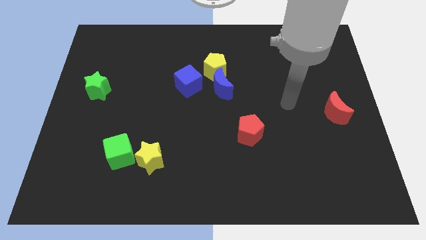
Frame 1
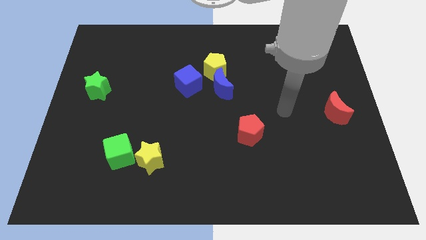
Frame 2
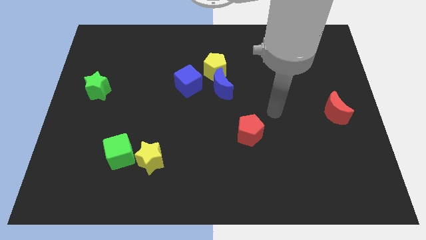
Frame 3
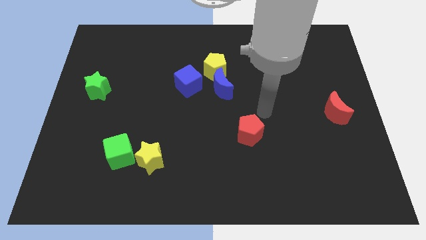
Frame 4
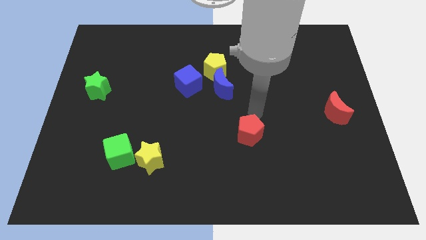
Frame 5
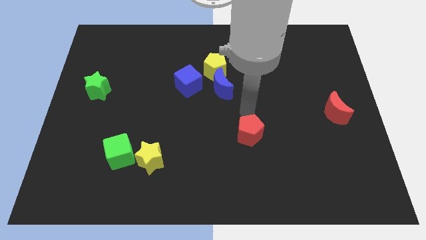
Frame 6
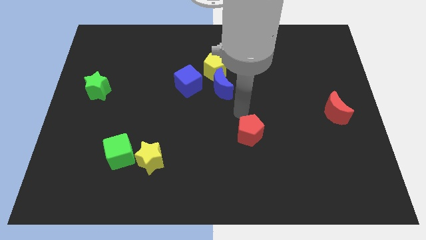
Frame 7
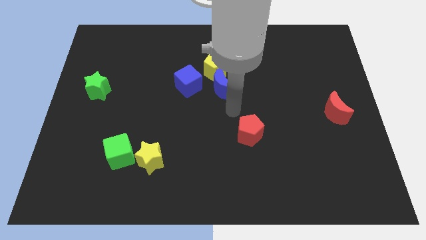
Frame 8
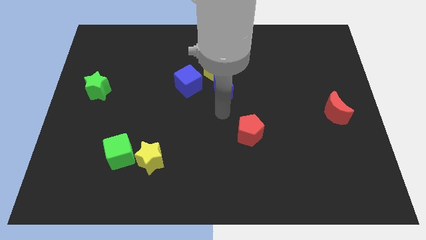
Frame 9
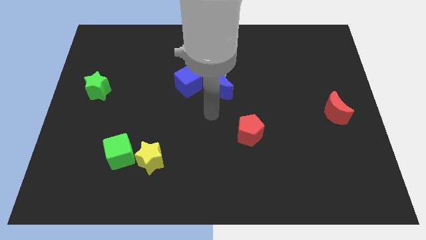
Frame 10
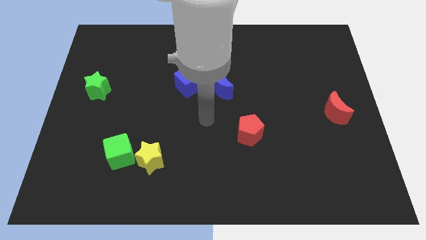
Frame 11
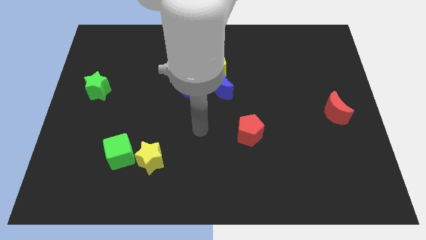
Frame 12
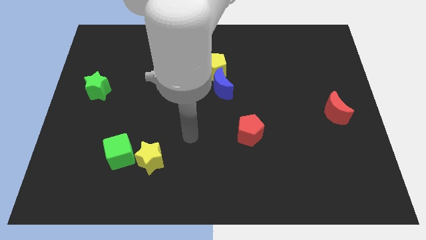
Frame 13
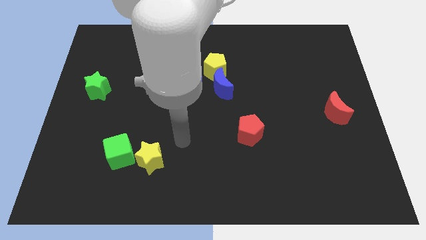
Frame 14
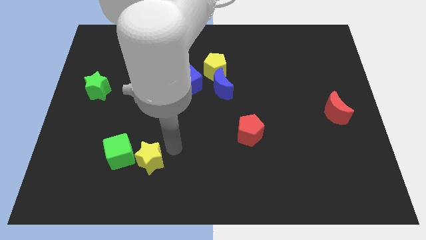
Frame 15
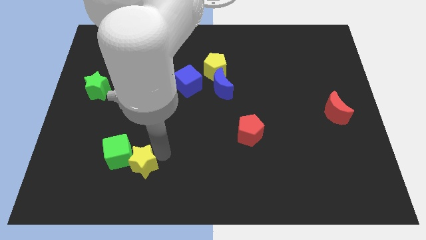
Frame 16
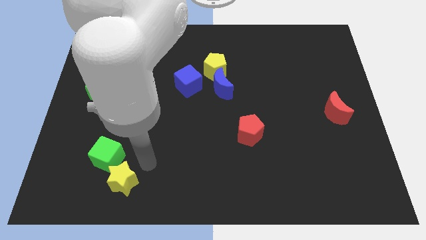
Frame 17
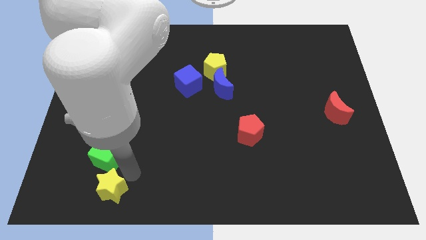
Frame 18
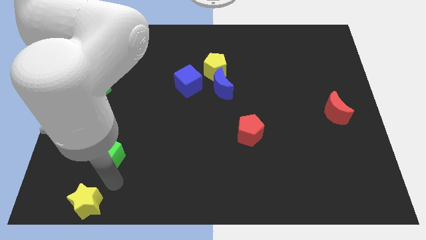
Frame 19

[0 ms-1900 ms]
move the green cube away from the yellow star

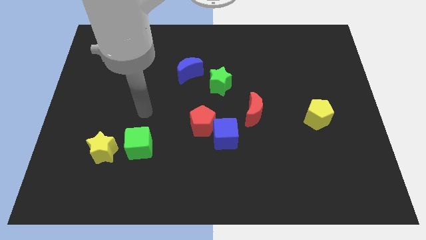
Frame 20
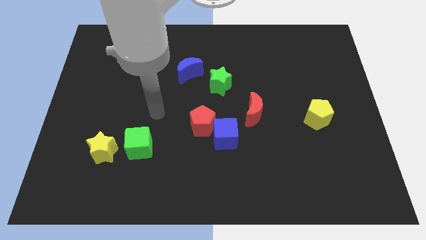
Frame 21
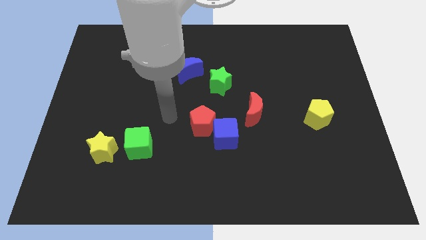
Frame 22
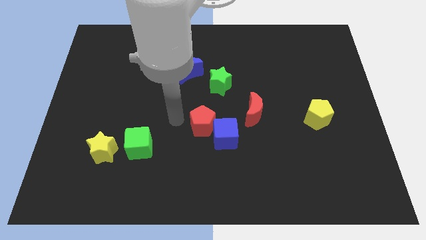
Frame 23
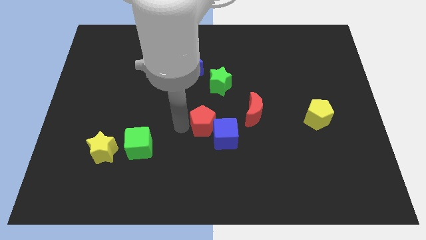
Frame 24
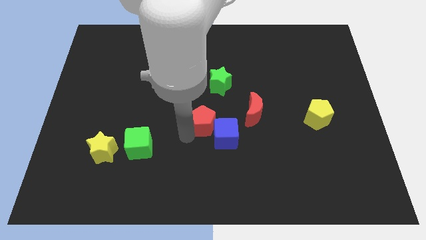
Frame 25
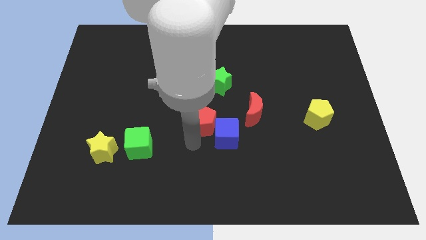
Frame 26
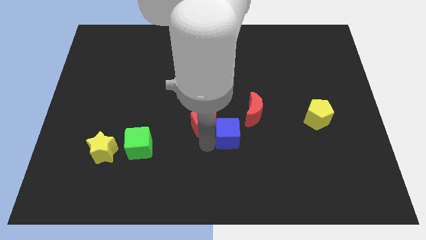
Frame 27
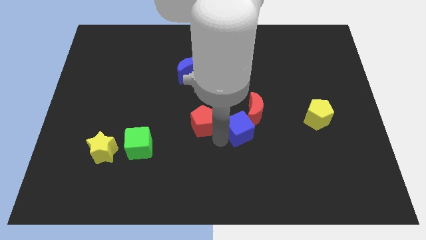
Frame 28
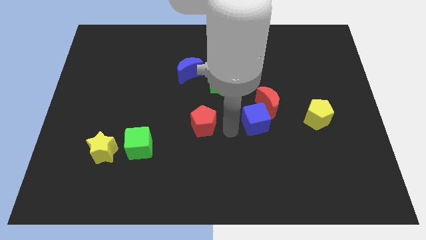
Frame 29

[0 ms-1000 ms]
separate the red pentagon from the blue cube

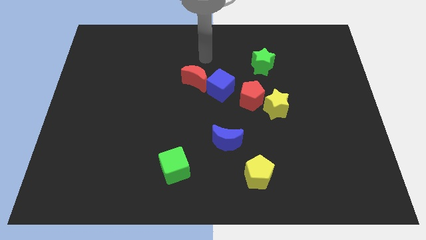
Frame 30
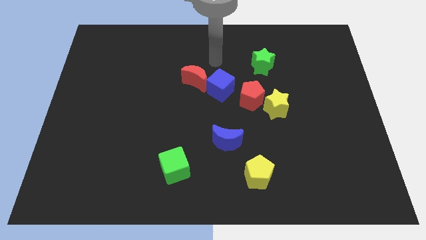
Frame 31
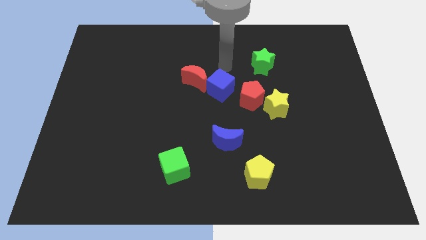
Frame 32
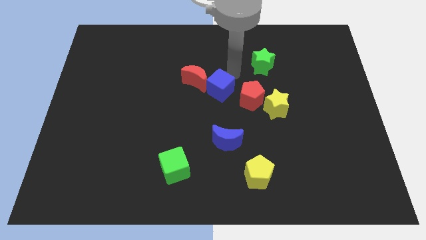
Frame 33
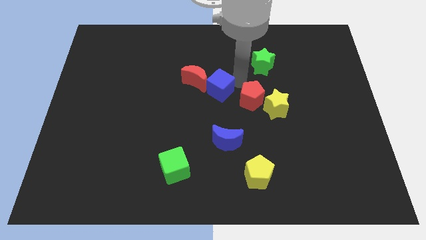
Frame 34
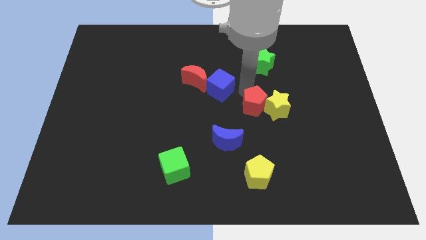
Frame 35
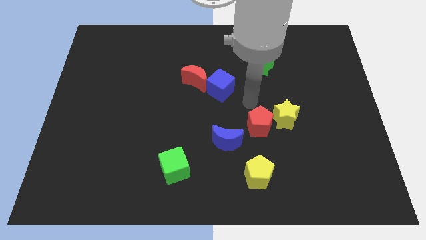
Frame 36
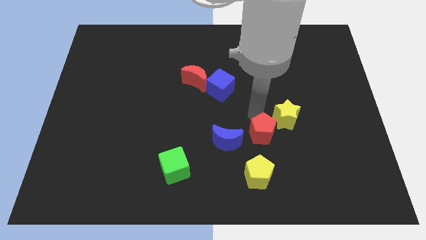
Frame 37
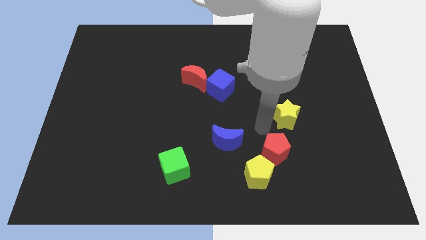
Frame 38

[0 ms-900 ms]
move the yellow star away from the red pentagon

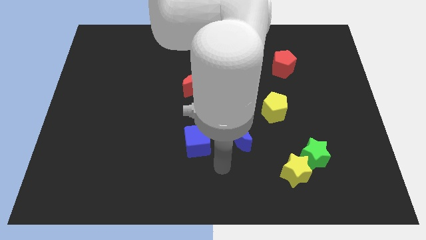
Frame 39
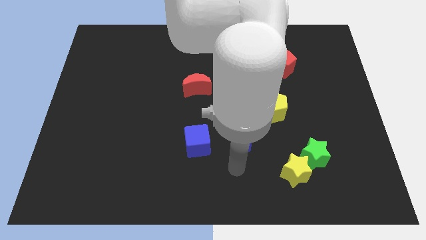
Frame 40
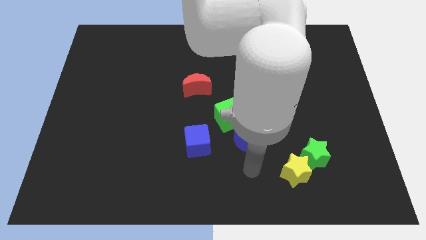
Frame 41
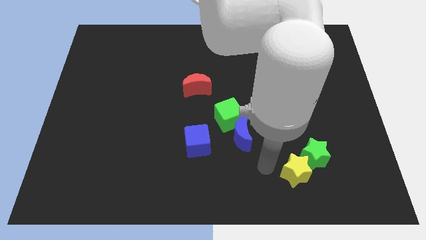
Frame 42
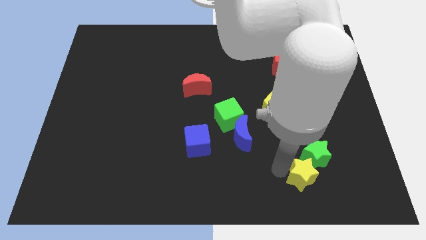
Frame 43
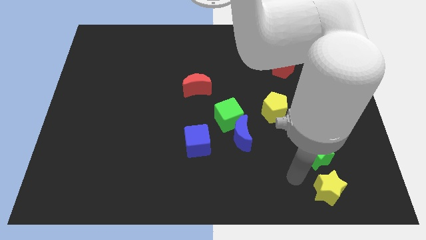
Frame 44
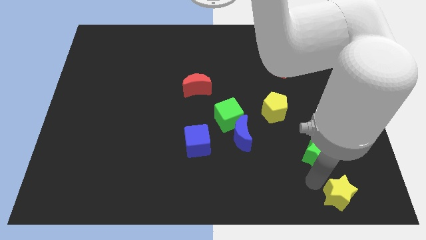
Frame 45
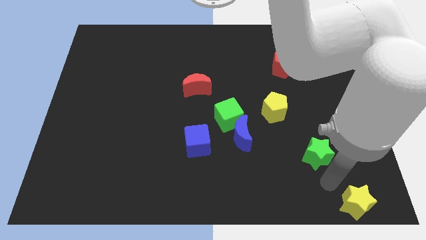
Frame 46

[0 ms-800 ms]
separate the green star from the yellow star

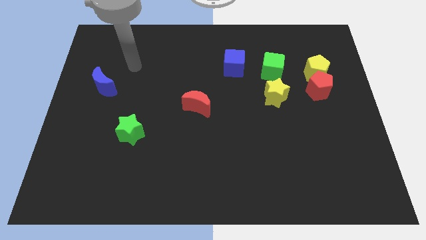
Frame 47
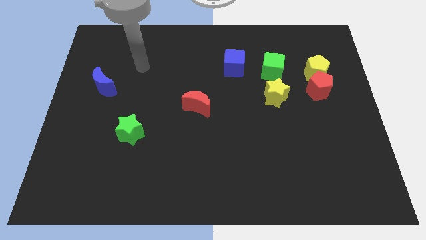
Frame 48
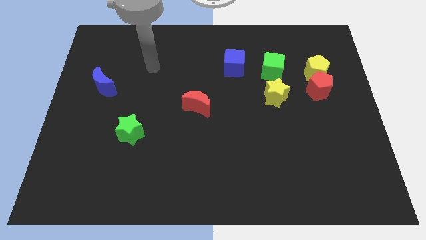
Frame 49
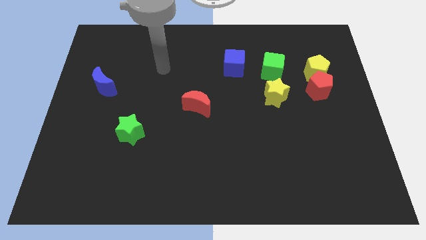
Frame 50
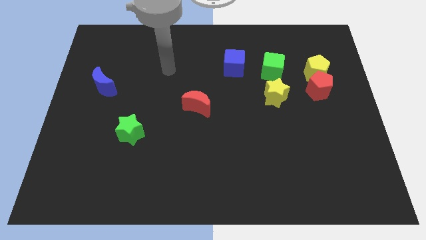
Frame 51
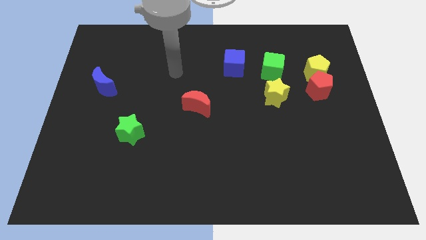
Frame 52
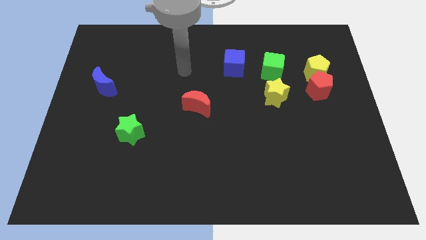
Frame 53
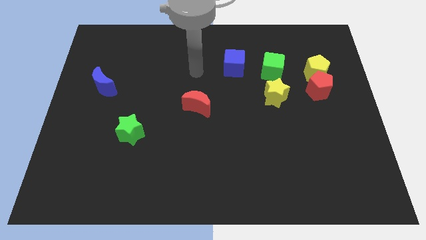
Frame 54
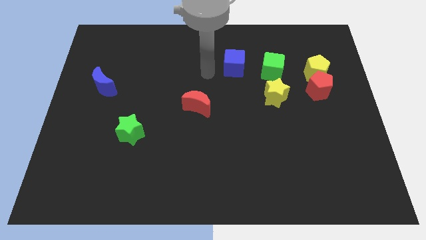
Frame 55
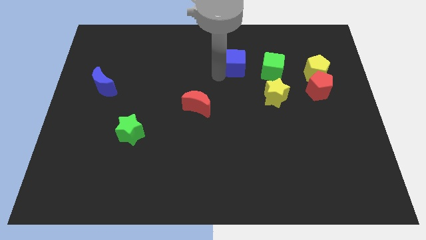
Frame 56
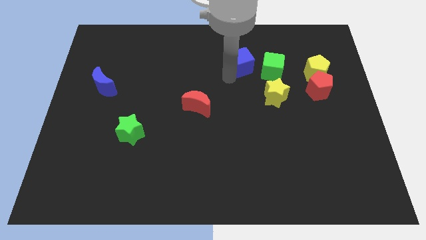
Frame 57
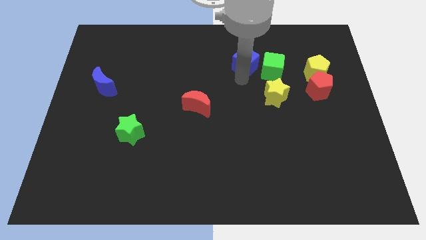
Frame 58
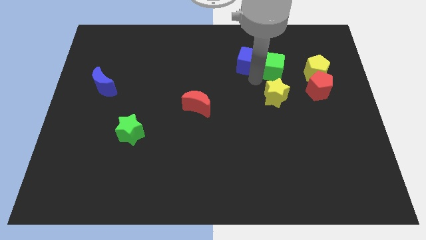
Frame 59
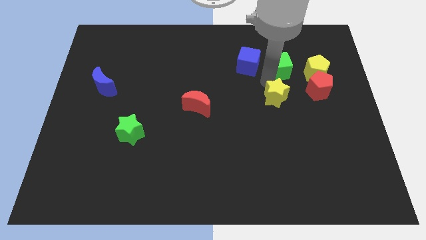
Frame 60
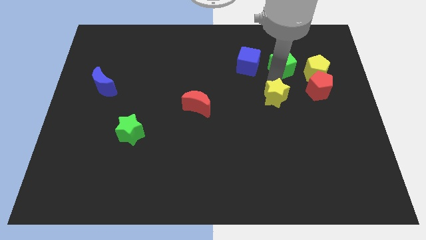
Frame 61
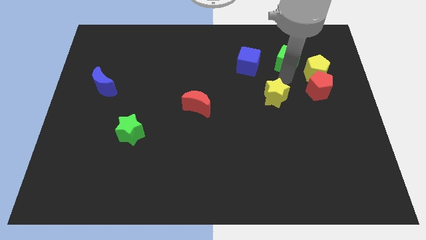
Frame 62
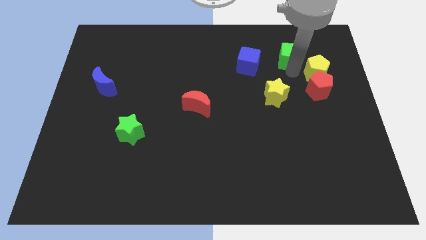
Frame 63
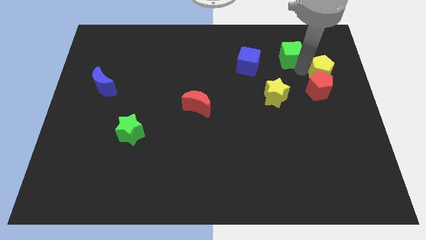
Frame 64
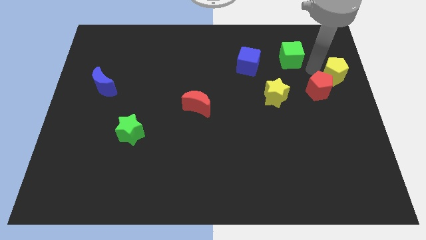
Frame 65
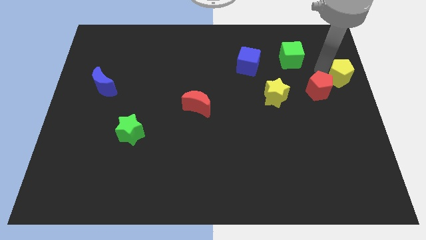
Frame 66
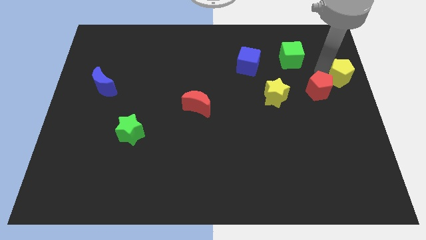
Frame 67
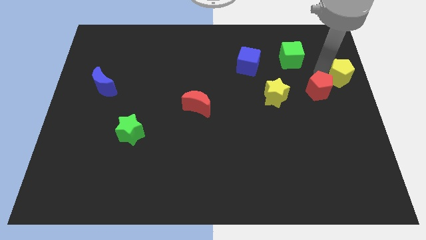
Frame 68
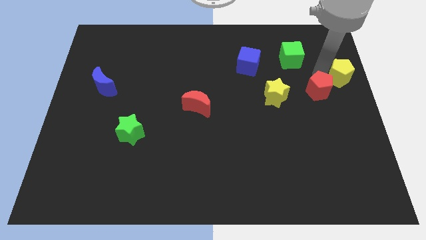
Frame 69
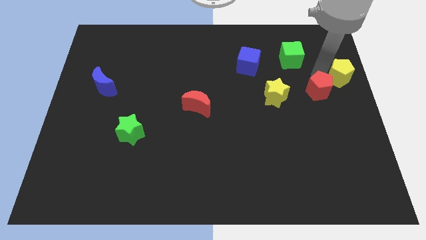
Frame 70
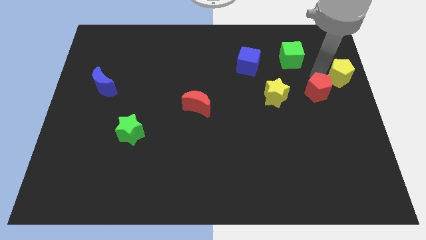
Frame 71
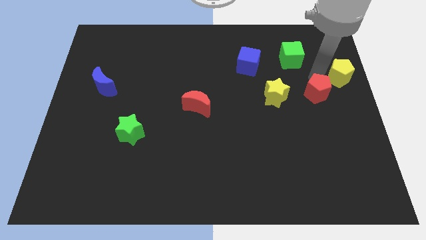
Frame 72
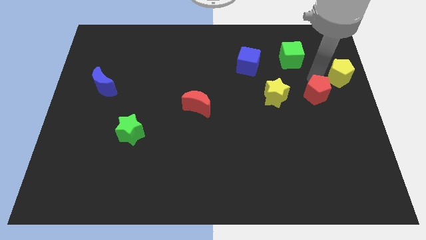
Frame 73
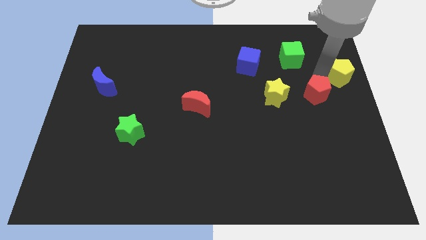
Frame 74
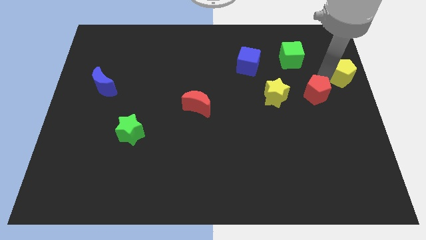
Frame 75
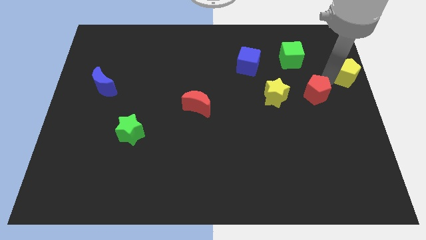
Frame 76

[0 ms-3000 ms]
move the red pentagon away from the yellow pentagon

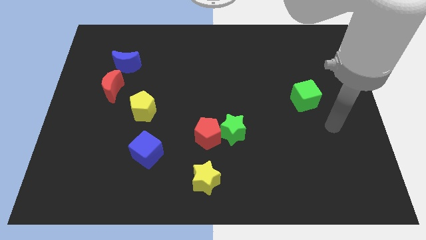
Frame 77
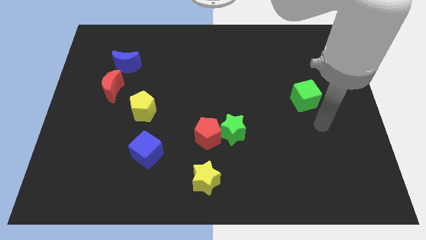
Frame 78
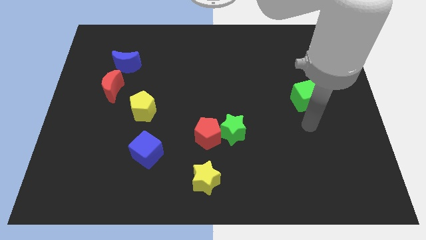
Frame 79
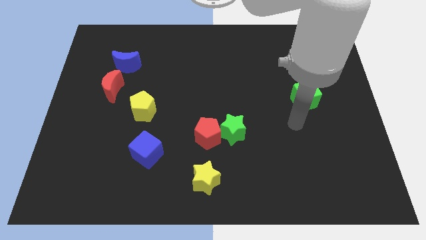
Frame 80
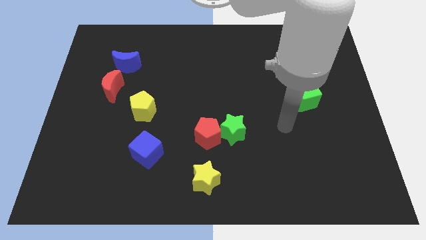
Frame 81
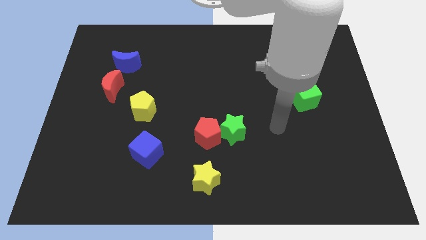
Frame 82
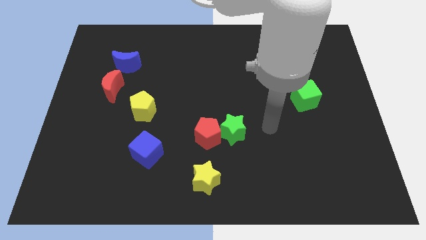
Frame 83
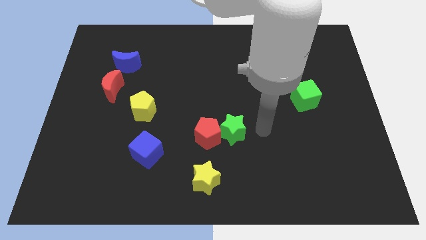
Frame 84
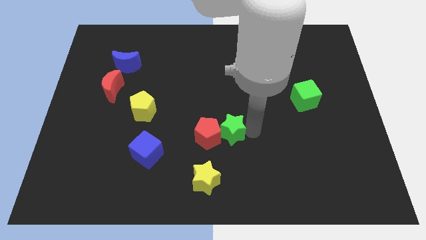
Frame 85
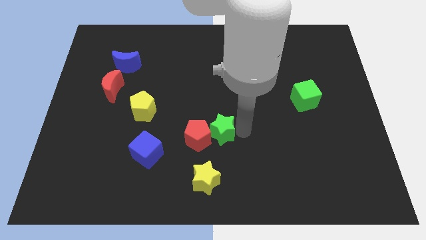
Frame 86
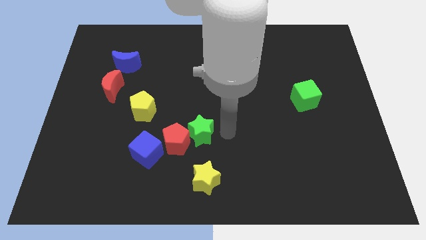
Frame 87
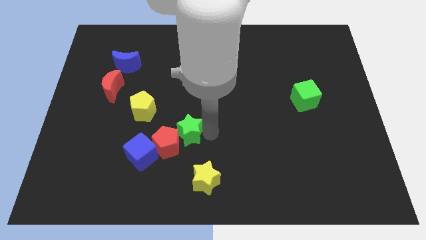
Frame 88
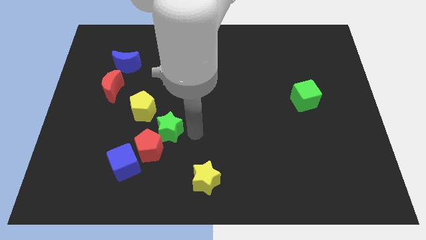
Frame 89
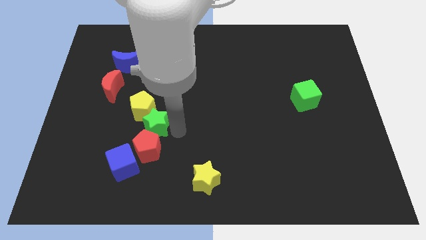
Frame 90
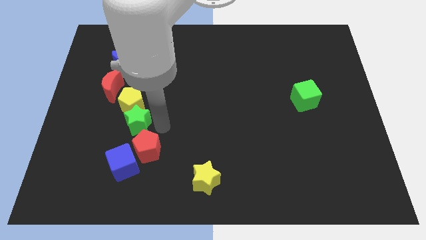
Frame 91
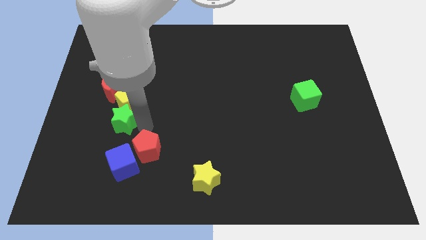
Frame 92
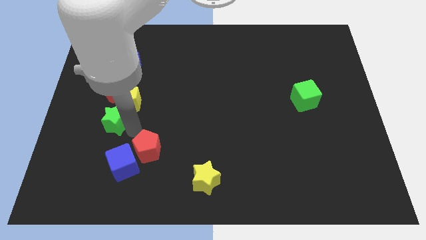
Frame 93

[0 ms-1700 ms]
separate the red pentagon from the green star
